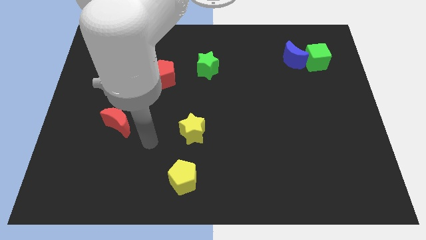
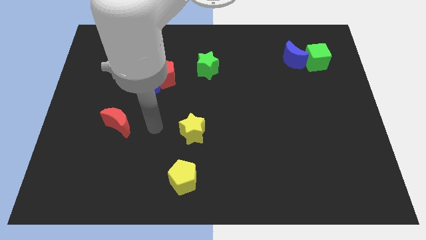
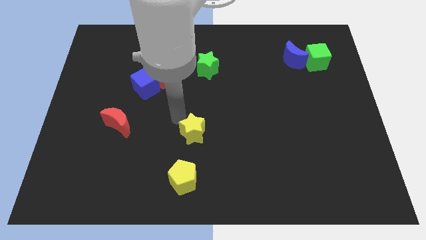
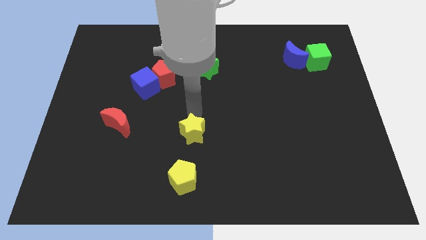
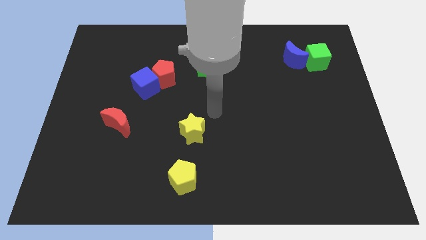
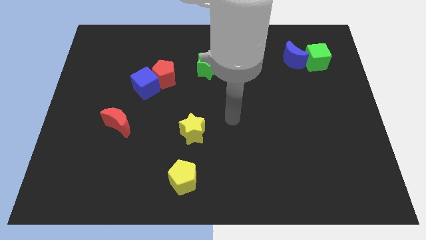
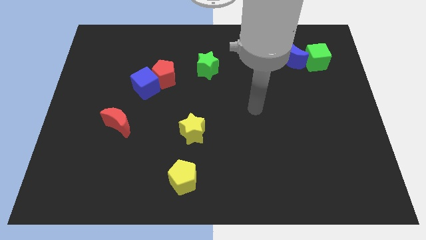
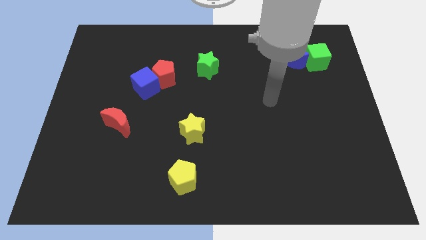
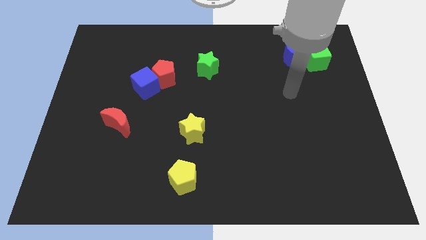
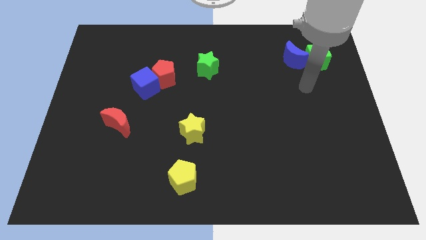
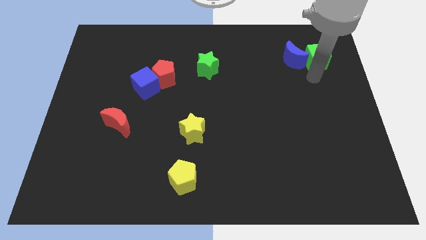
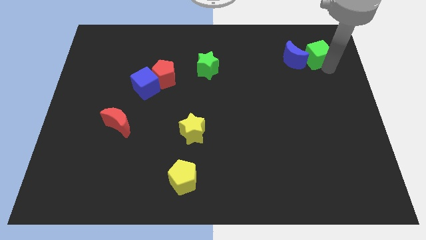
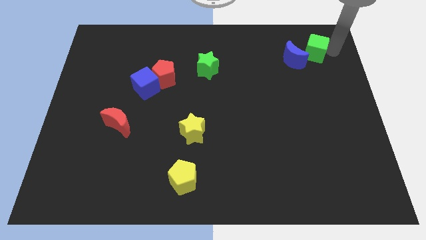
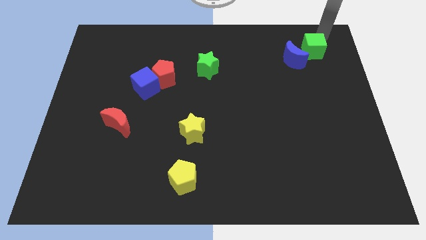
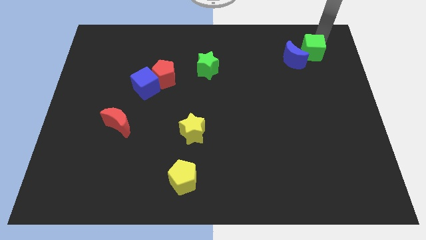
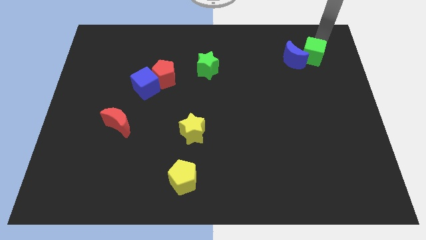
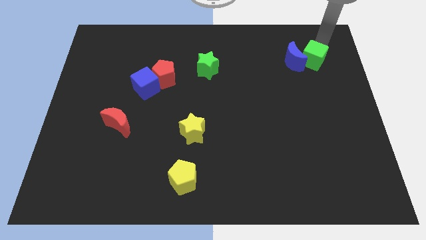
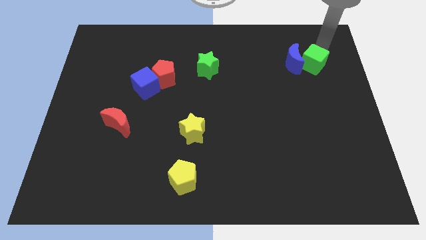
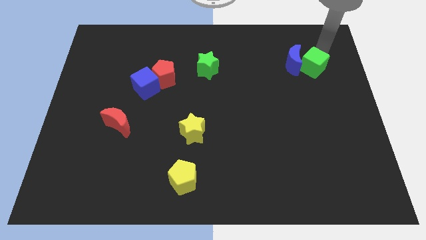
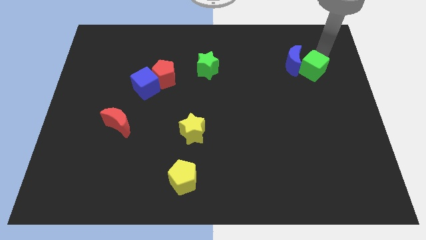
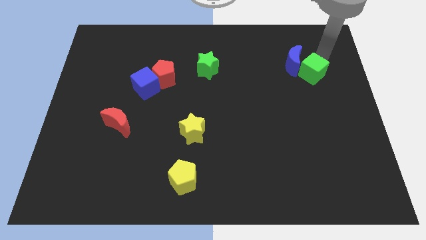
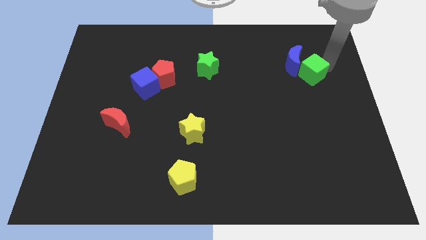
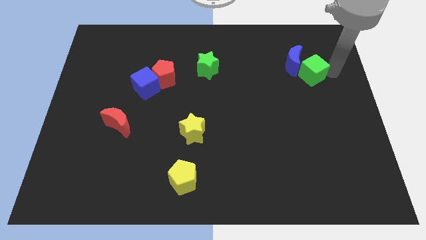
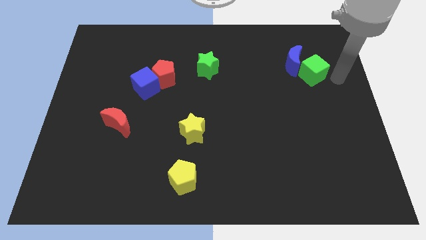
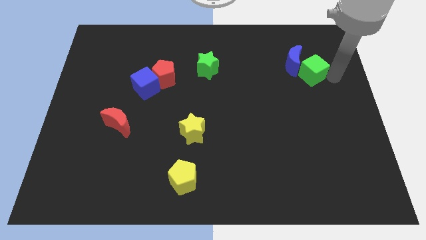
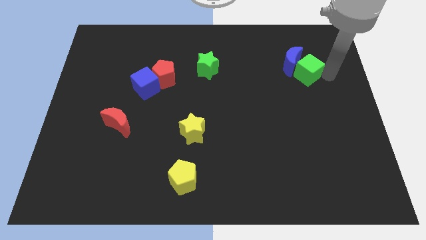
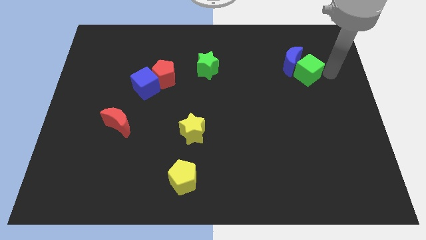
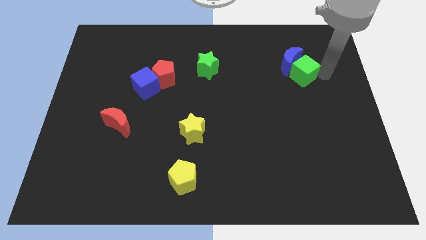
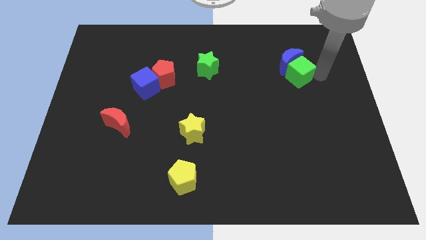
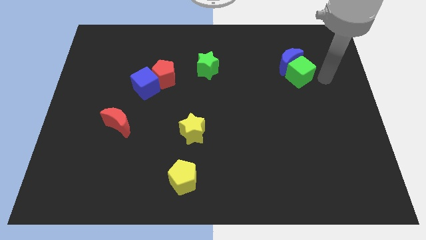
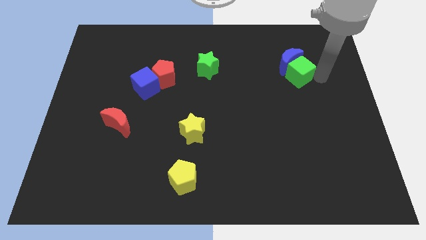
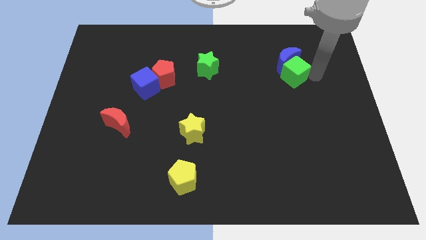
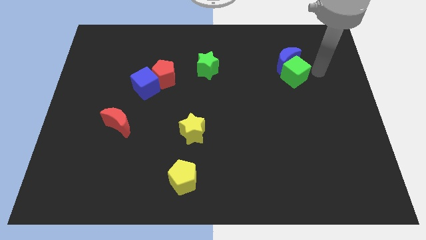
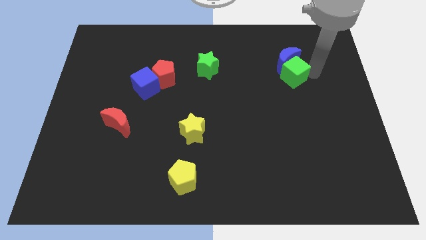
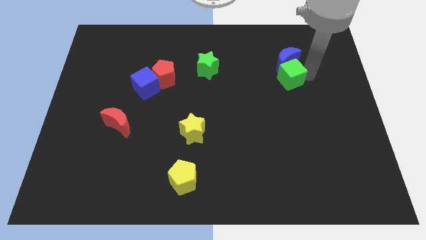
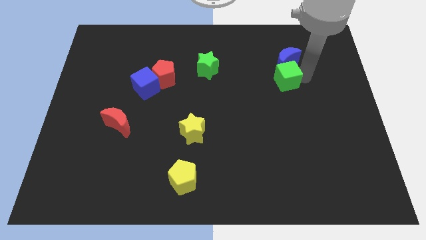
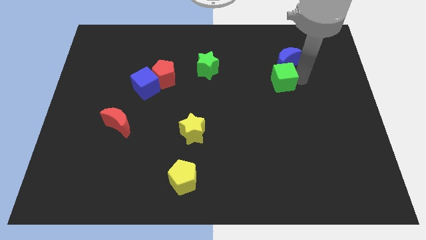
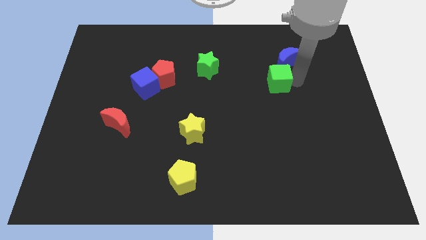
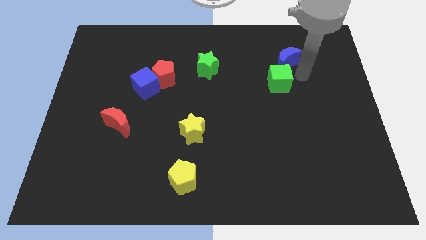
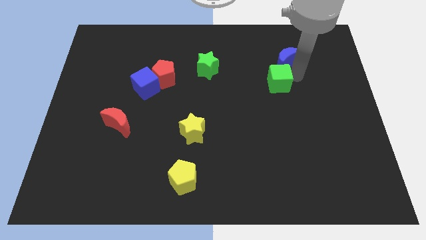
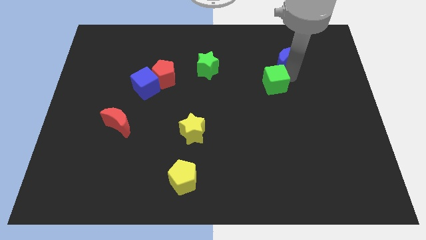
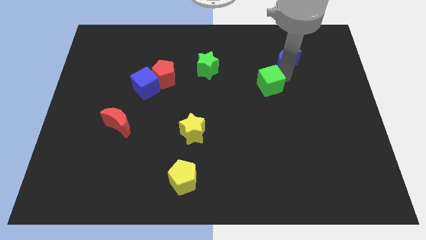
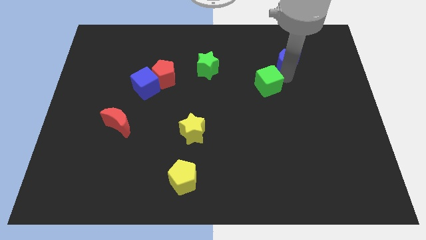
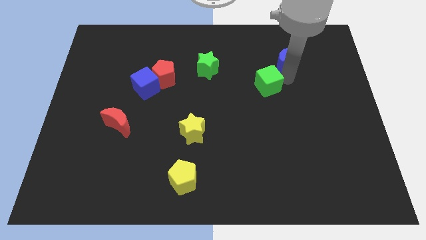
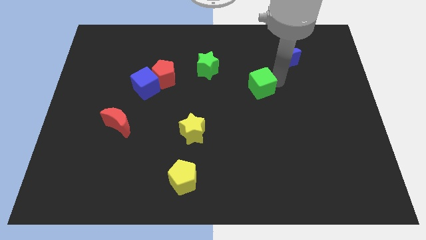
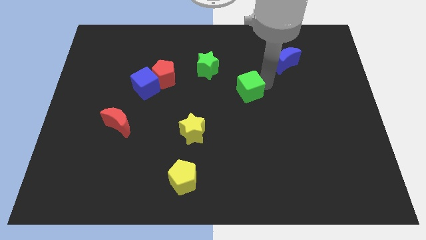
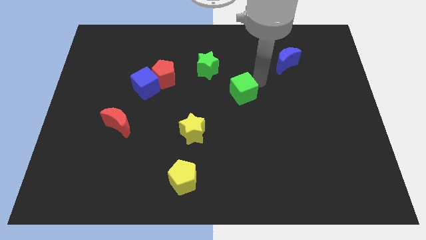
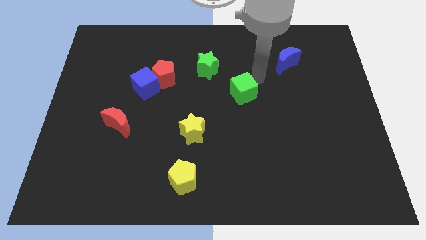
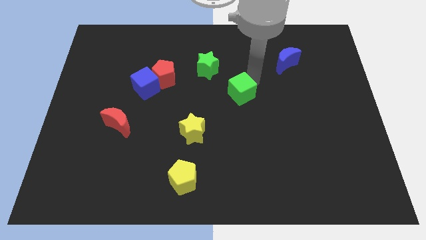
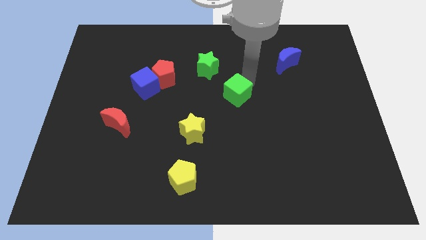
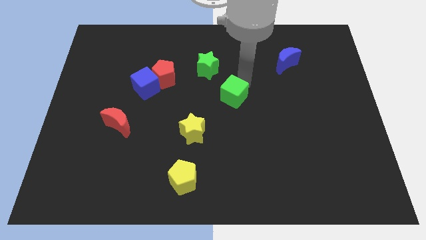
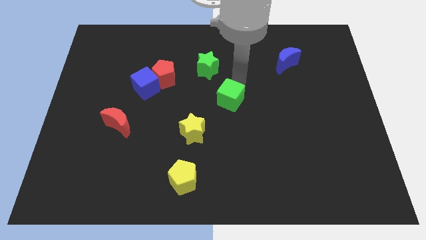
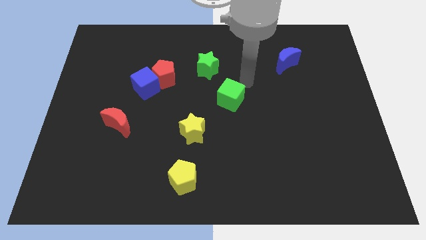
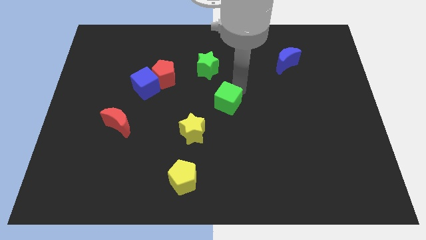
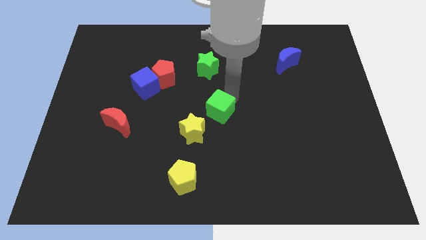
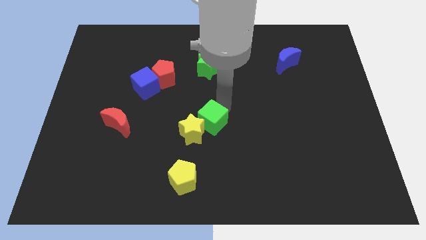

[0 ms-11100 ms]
push the green cube next to the yellow star

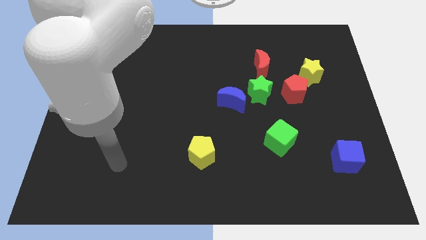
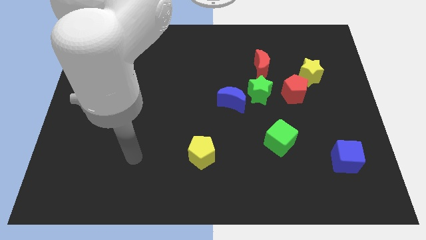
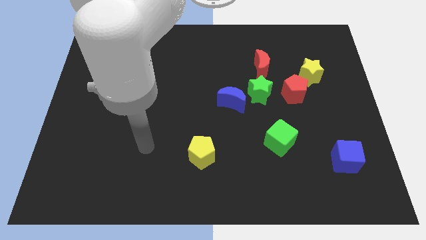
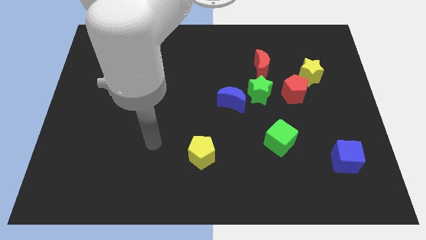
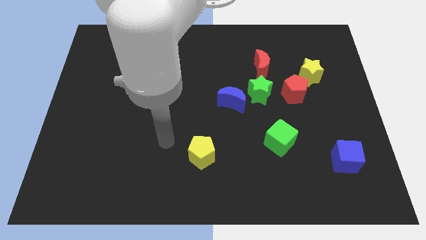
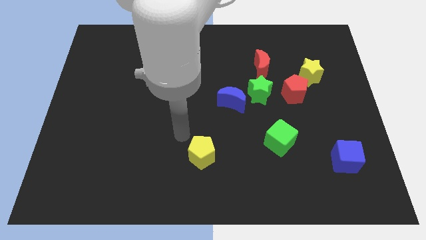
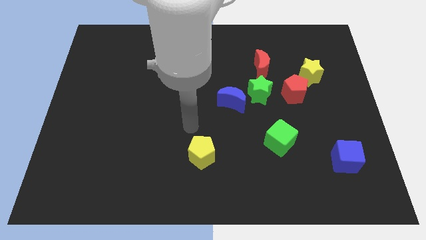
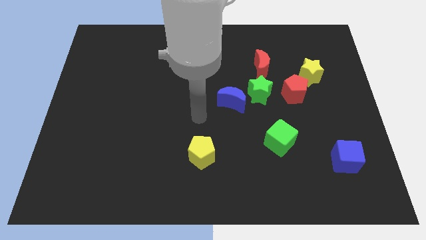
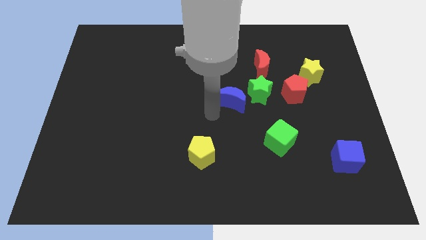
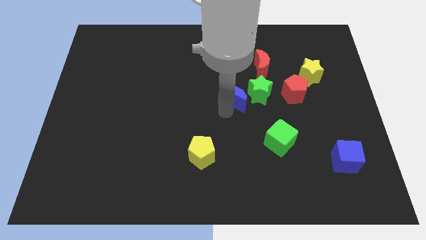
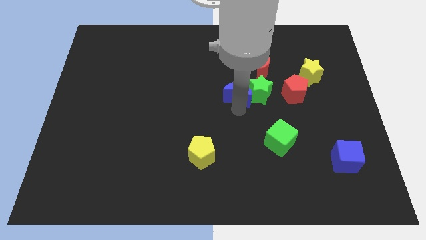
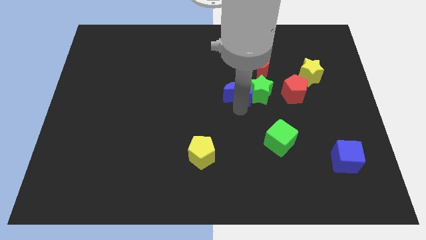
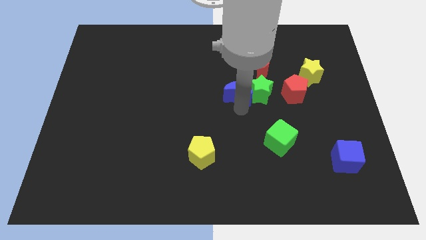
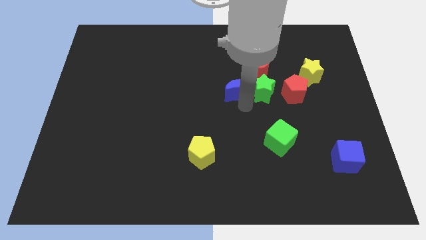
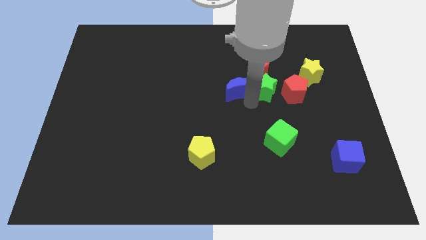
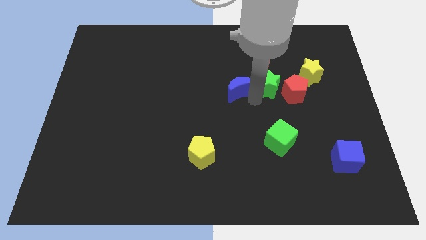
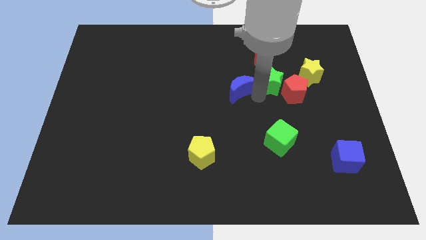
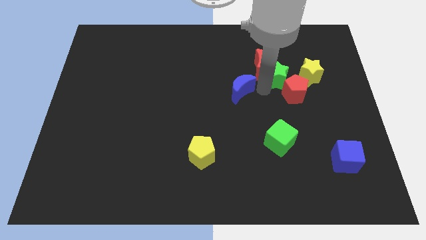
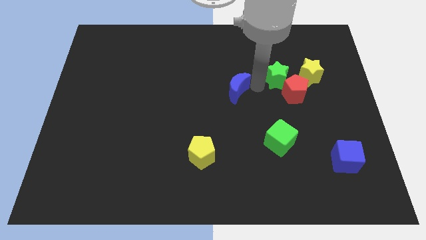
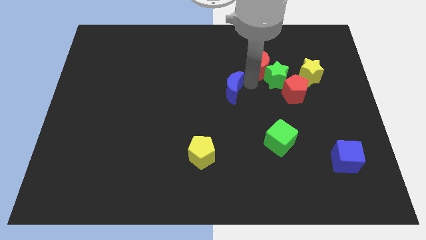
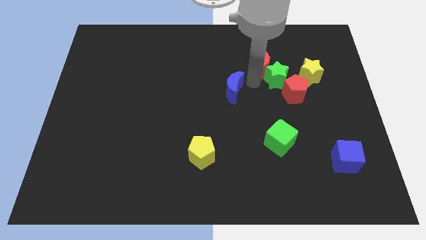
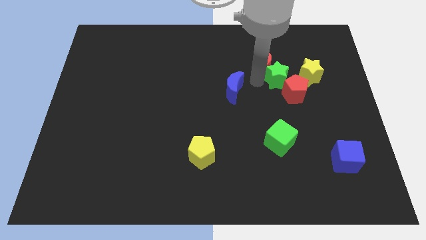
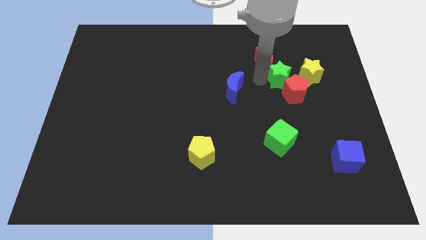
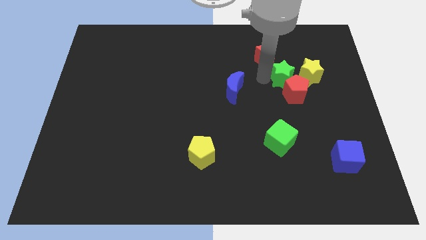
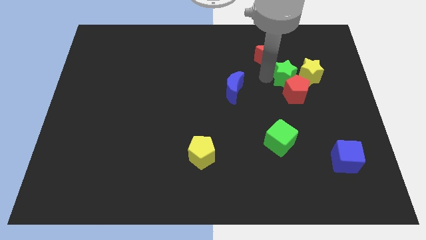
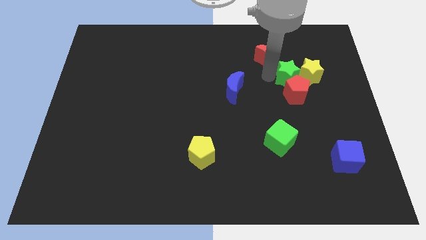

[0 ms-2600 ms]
move the green star to the yellow star
